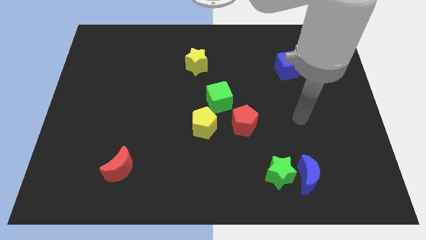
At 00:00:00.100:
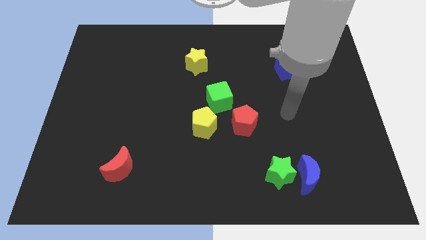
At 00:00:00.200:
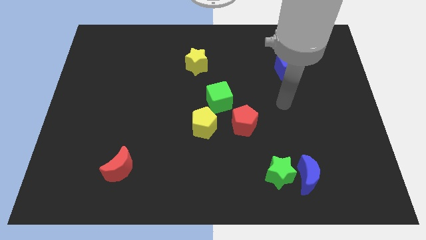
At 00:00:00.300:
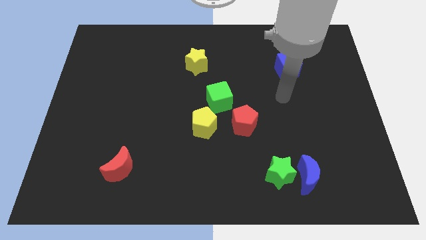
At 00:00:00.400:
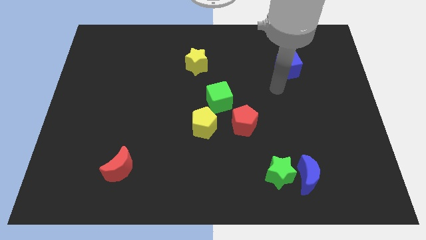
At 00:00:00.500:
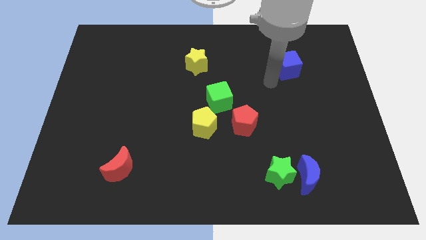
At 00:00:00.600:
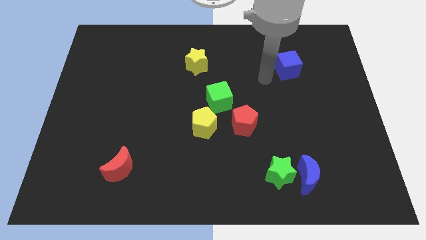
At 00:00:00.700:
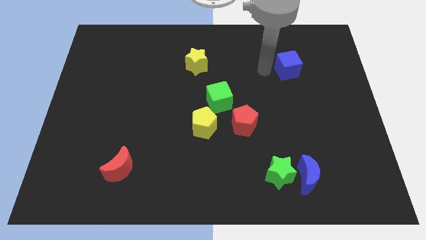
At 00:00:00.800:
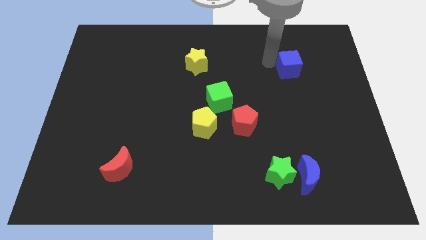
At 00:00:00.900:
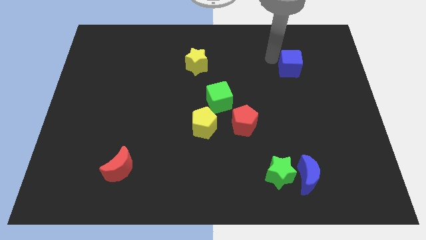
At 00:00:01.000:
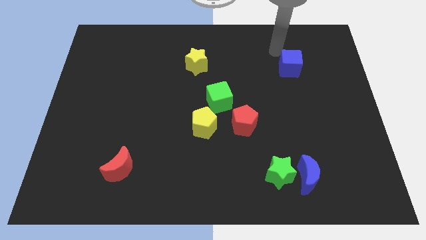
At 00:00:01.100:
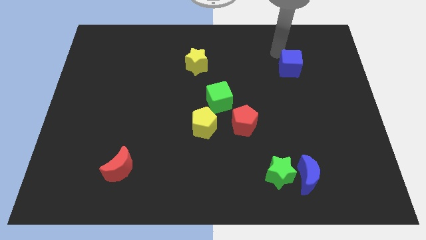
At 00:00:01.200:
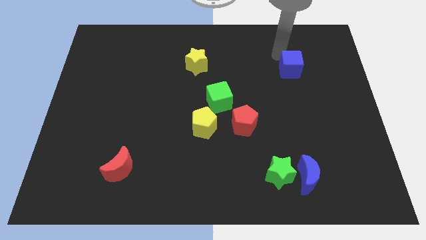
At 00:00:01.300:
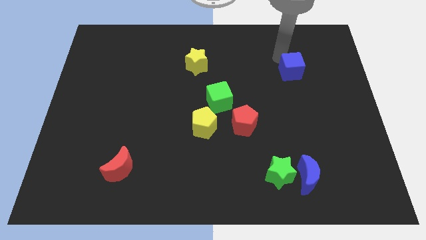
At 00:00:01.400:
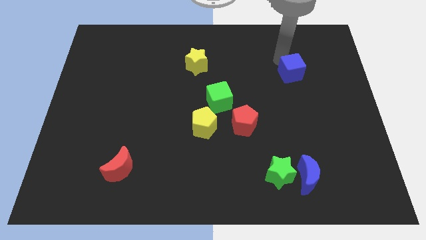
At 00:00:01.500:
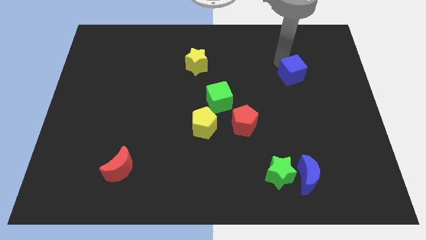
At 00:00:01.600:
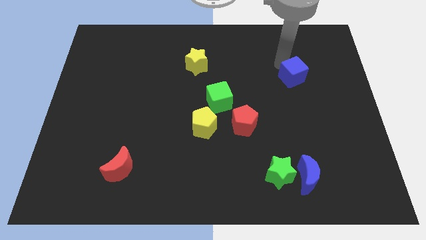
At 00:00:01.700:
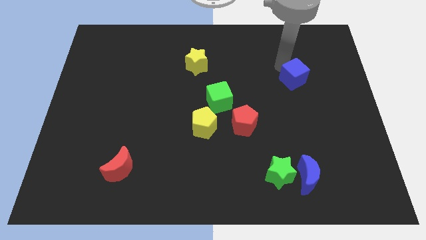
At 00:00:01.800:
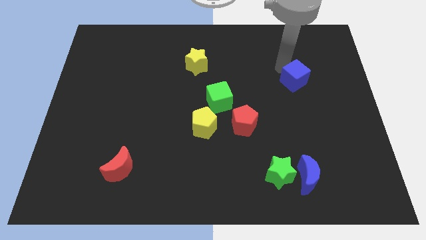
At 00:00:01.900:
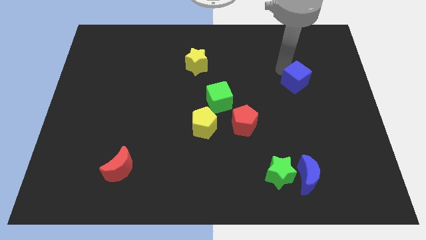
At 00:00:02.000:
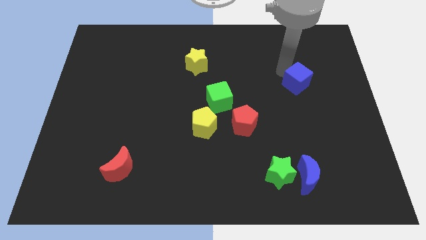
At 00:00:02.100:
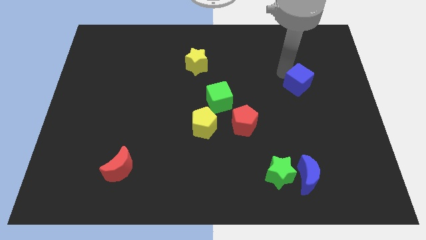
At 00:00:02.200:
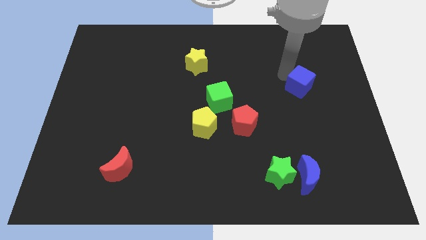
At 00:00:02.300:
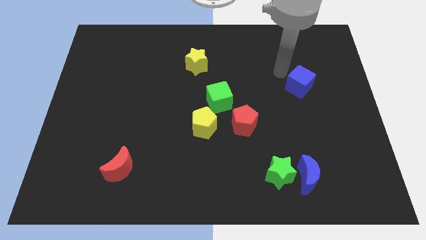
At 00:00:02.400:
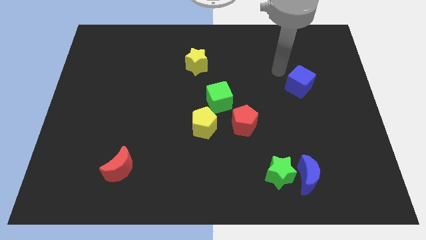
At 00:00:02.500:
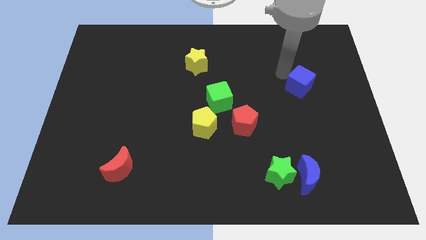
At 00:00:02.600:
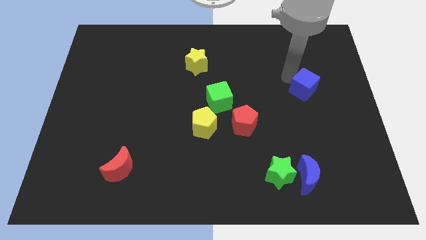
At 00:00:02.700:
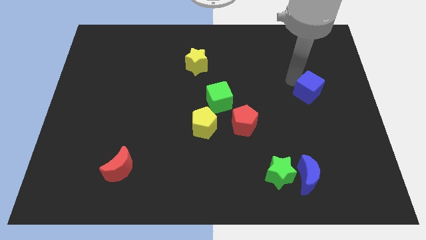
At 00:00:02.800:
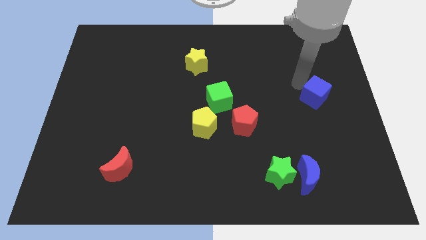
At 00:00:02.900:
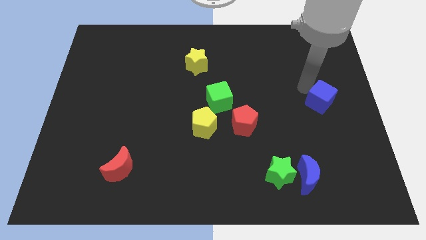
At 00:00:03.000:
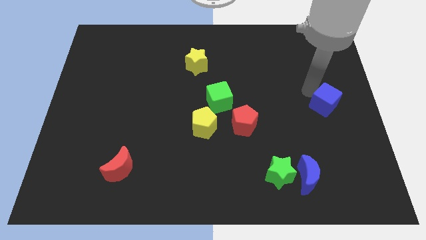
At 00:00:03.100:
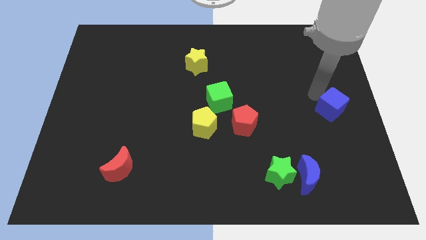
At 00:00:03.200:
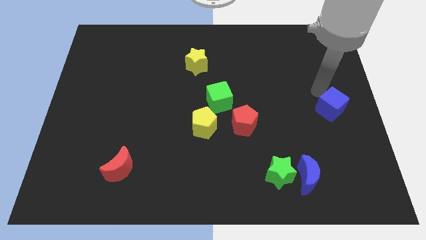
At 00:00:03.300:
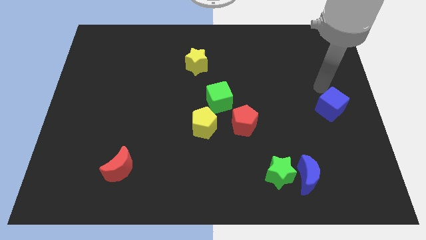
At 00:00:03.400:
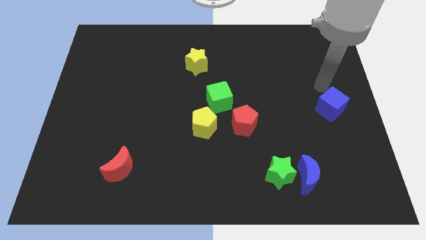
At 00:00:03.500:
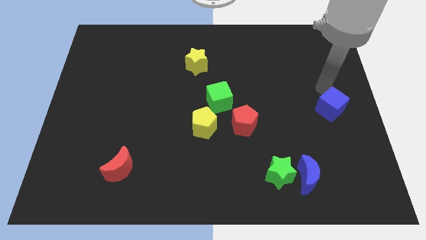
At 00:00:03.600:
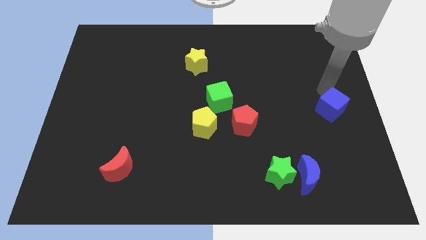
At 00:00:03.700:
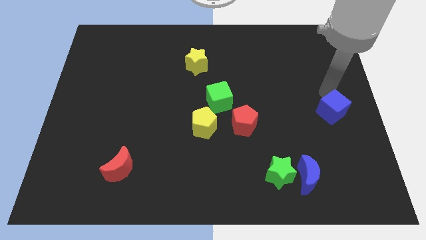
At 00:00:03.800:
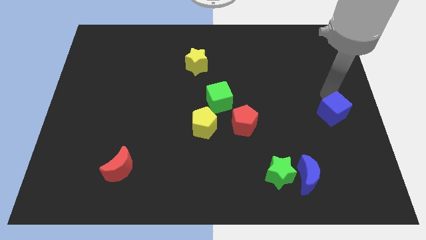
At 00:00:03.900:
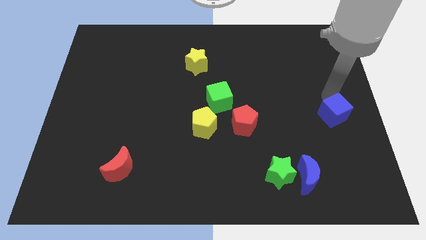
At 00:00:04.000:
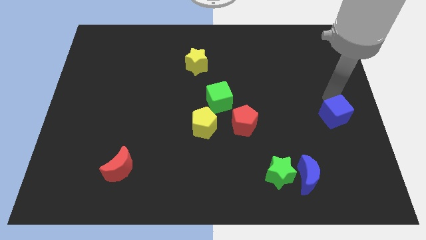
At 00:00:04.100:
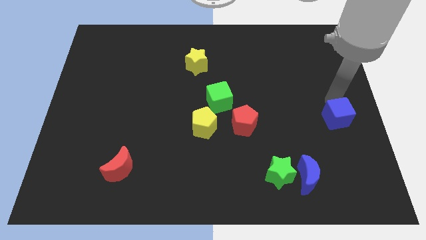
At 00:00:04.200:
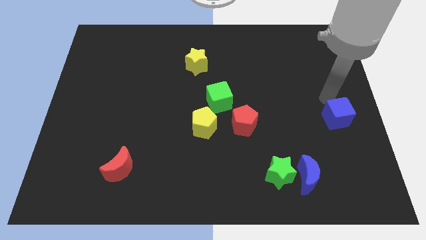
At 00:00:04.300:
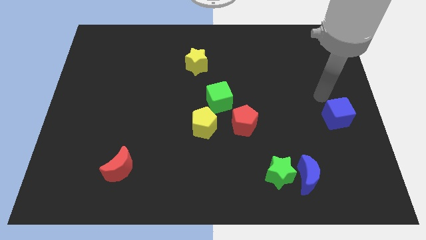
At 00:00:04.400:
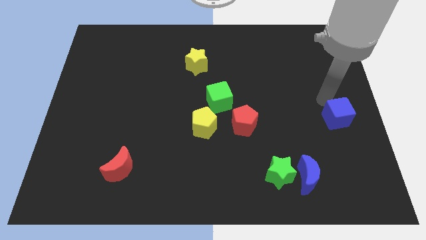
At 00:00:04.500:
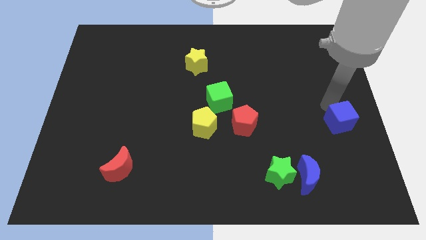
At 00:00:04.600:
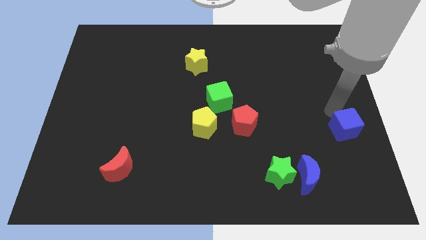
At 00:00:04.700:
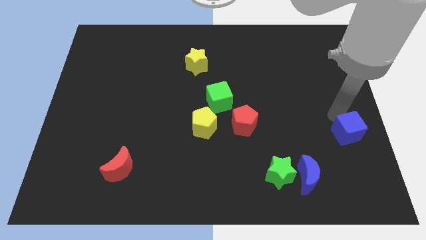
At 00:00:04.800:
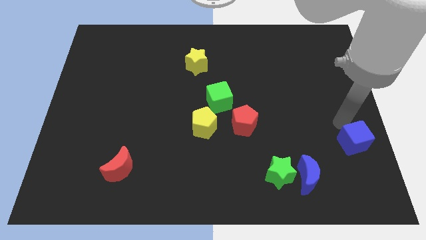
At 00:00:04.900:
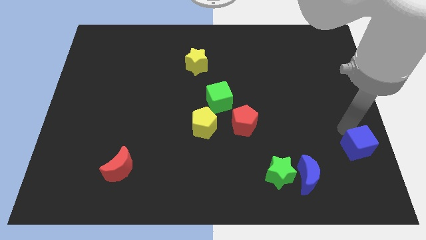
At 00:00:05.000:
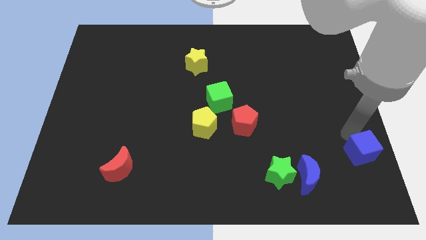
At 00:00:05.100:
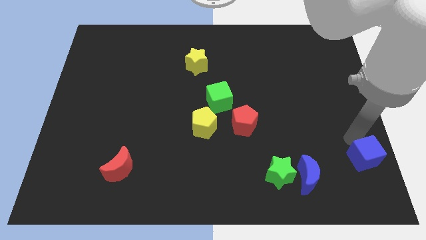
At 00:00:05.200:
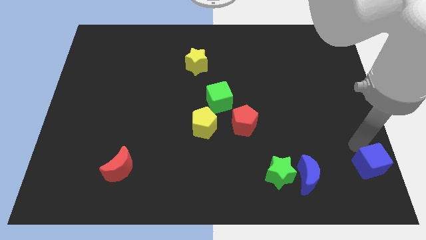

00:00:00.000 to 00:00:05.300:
slide the blue cube to the bottom right corner
